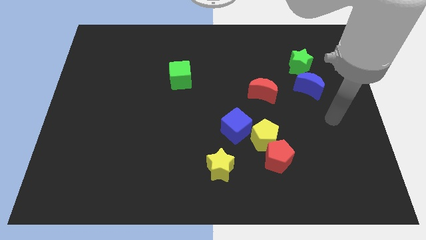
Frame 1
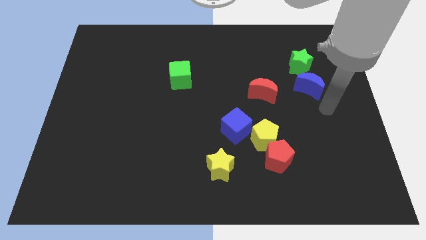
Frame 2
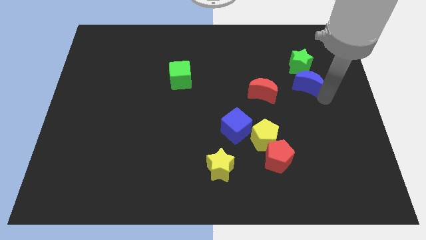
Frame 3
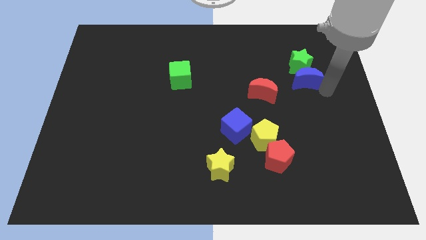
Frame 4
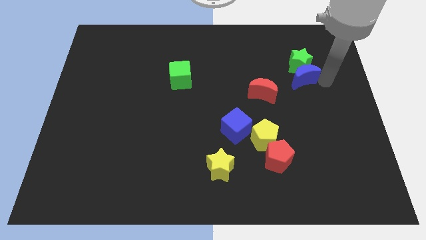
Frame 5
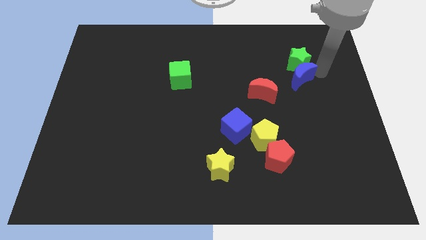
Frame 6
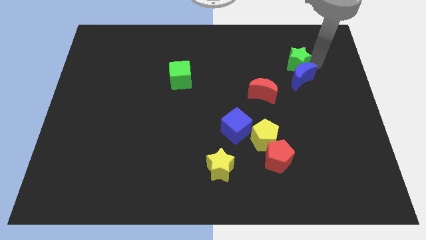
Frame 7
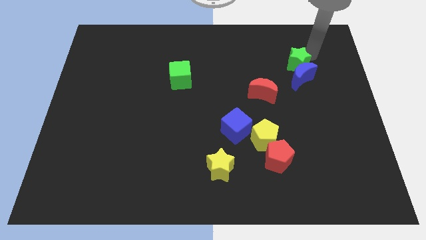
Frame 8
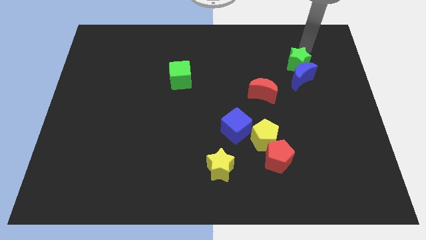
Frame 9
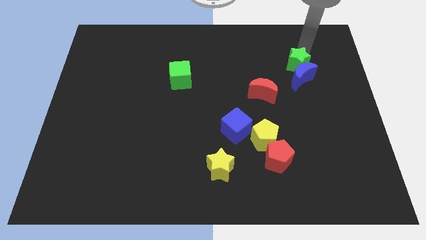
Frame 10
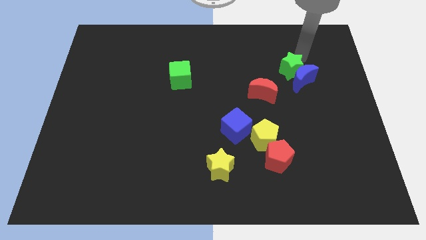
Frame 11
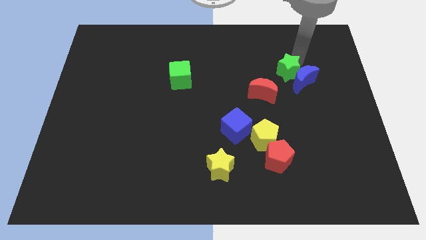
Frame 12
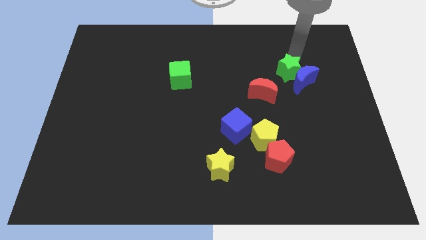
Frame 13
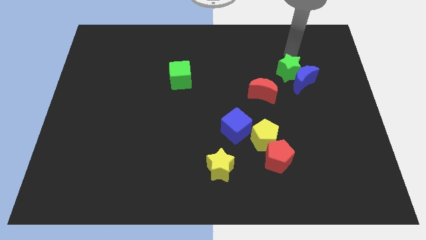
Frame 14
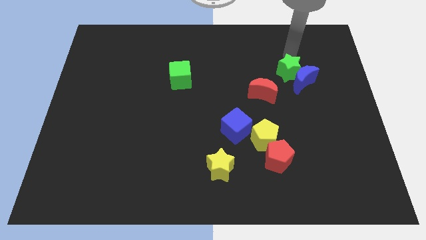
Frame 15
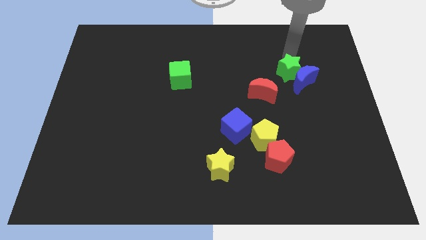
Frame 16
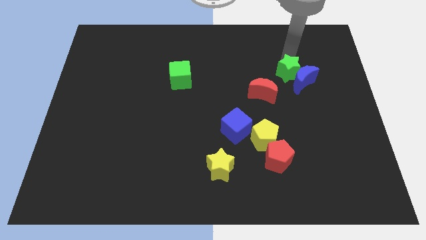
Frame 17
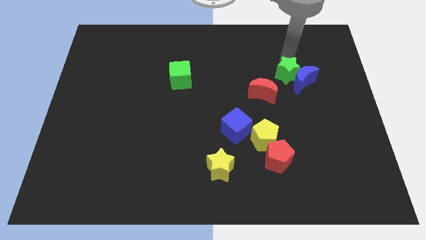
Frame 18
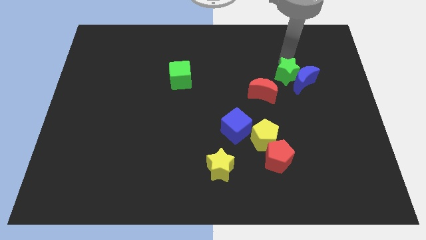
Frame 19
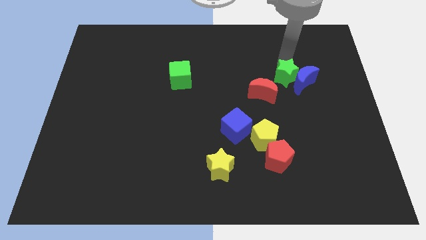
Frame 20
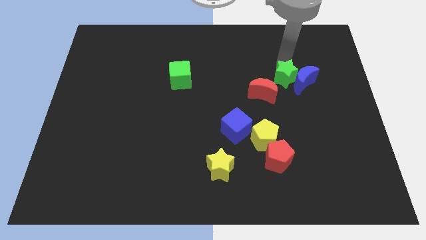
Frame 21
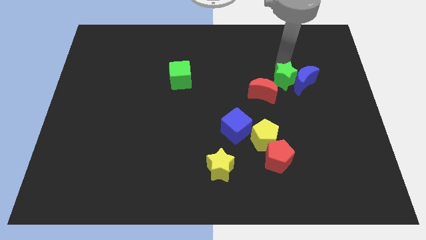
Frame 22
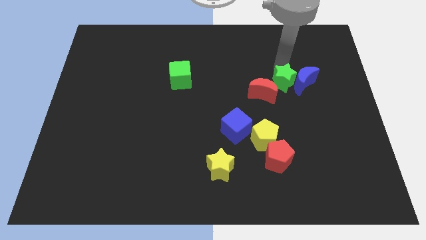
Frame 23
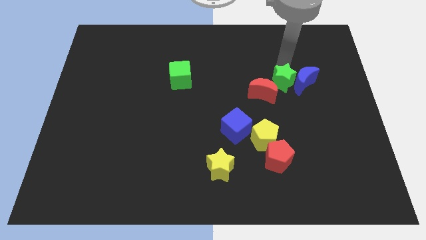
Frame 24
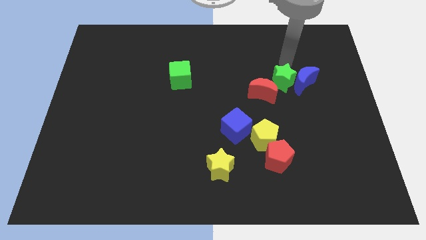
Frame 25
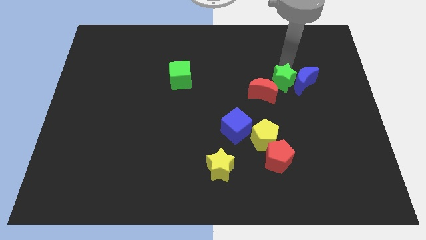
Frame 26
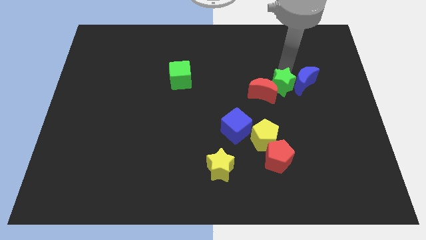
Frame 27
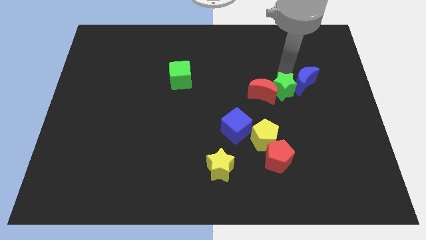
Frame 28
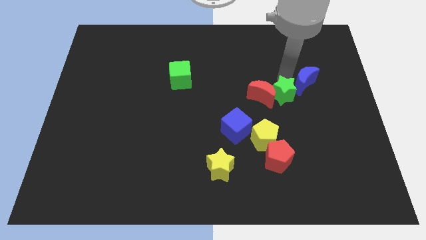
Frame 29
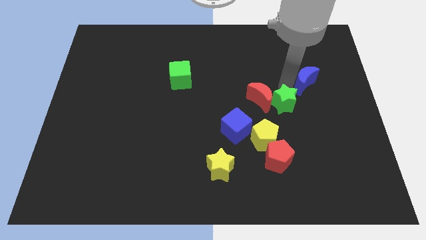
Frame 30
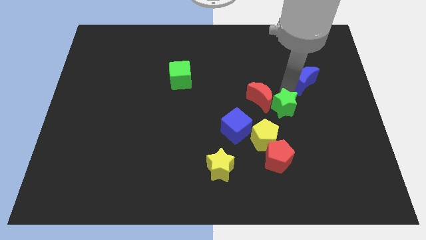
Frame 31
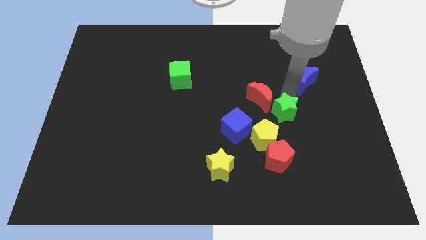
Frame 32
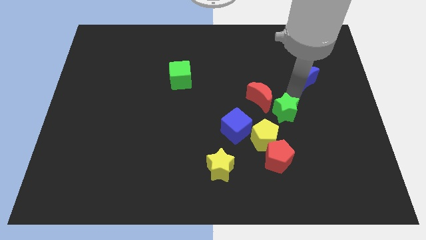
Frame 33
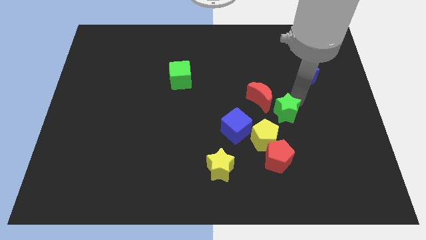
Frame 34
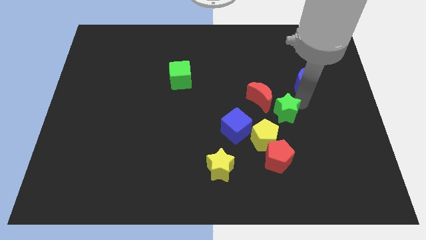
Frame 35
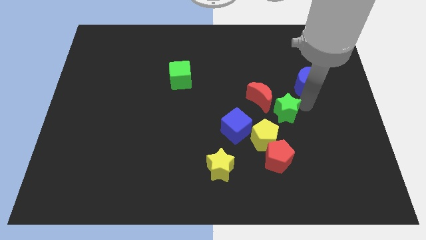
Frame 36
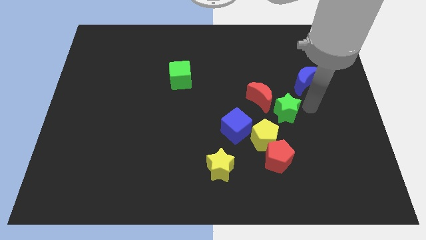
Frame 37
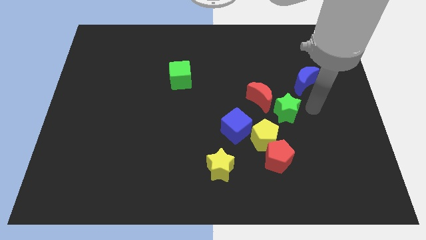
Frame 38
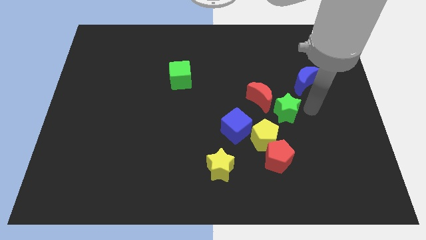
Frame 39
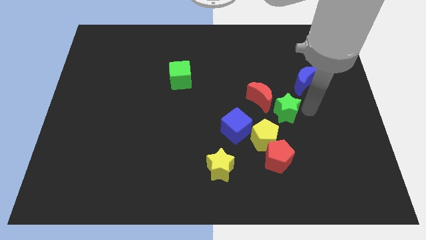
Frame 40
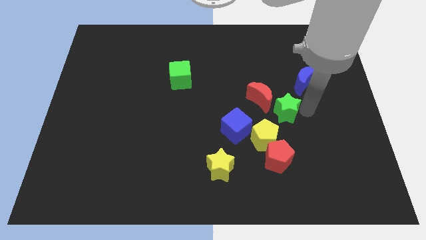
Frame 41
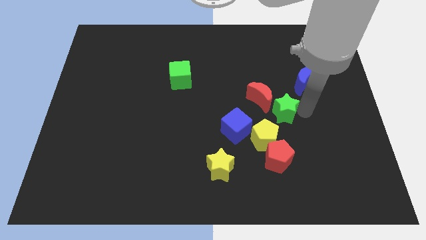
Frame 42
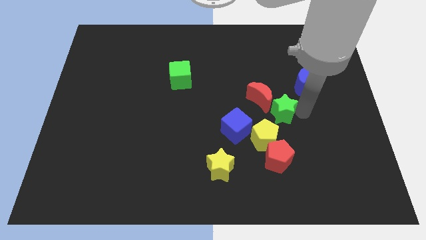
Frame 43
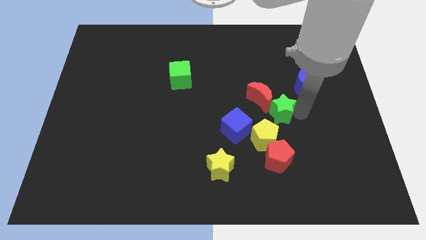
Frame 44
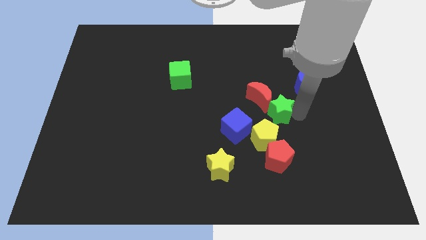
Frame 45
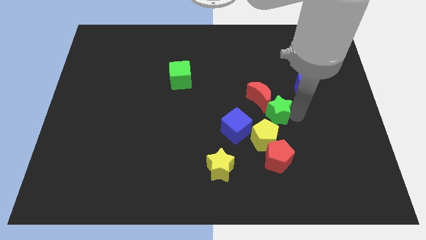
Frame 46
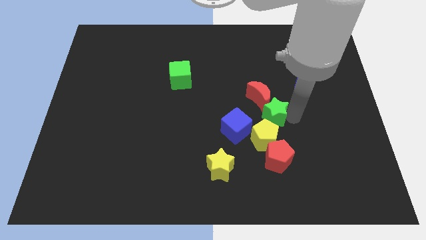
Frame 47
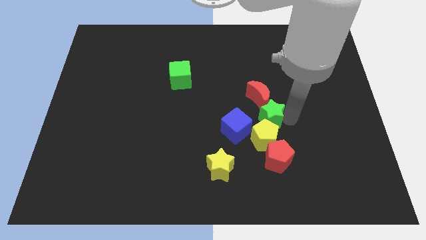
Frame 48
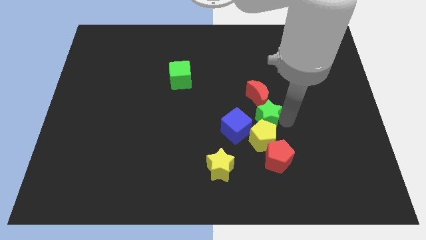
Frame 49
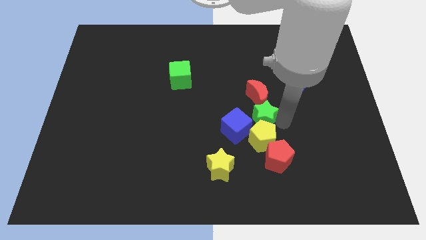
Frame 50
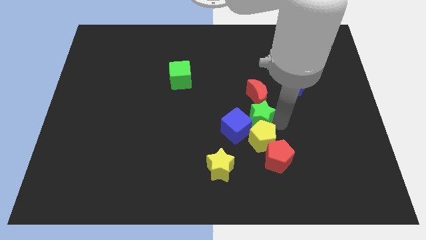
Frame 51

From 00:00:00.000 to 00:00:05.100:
put the green star close to the blue cube

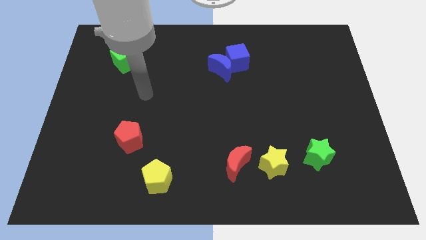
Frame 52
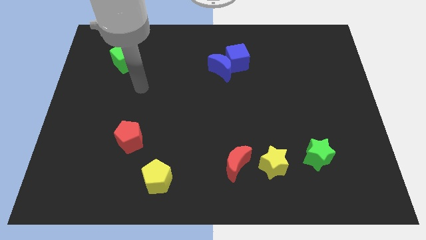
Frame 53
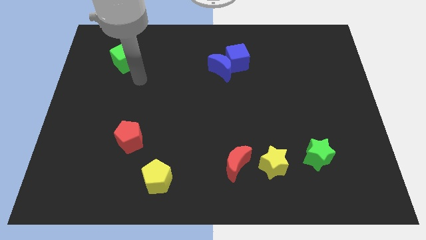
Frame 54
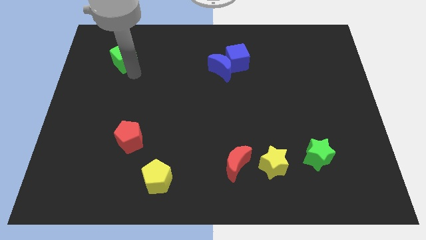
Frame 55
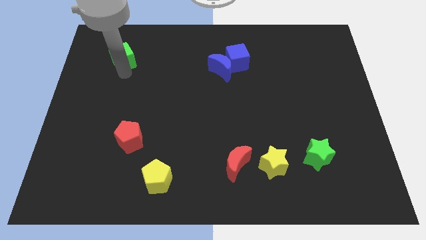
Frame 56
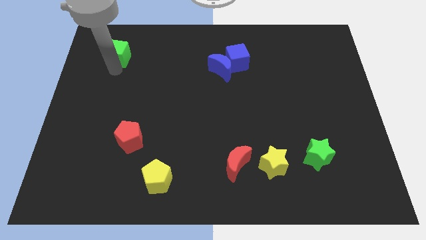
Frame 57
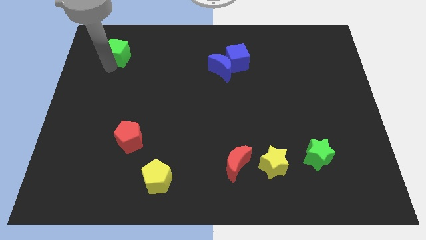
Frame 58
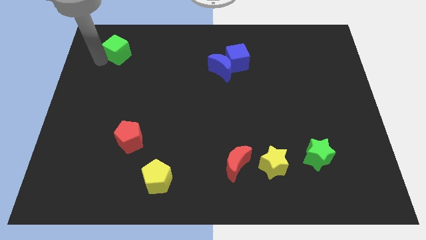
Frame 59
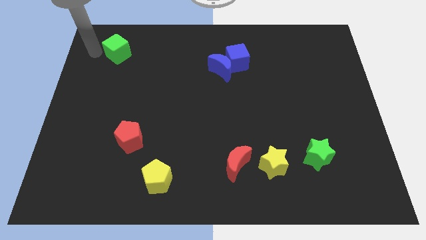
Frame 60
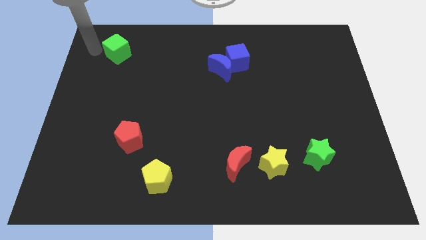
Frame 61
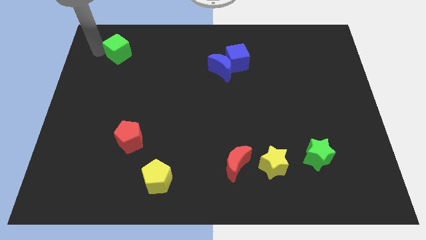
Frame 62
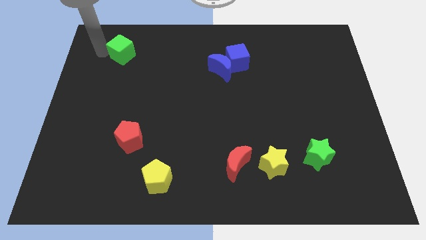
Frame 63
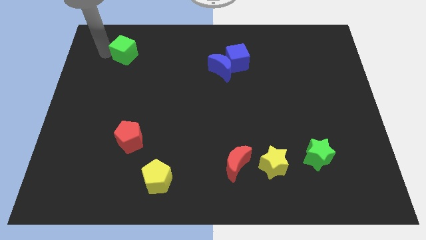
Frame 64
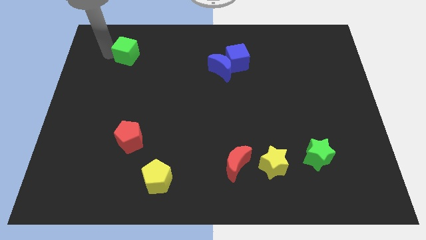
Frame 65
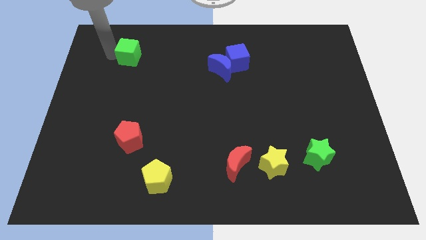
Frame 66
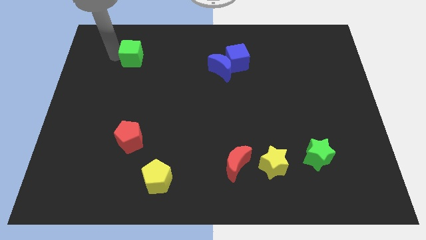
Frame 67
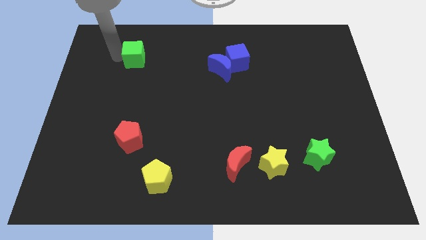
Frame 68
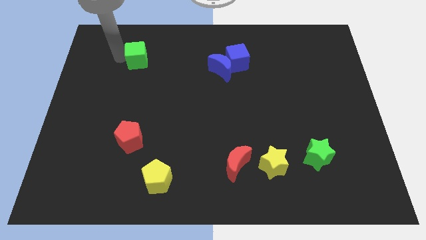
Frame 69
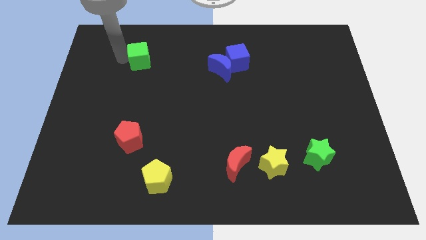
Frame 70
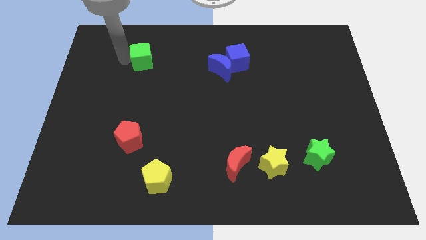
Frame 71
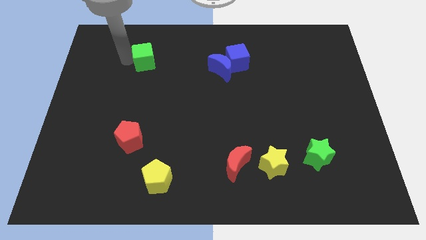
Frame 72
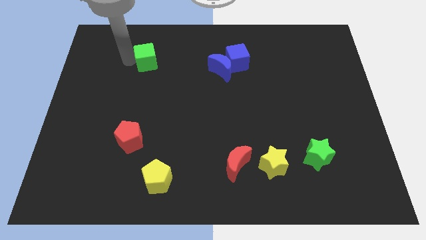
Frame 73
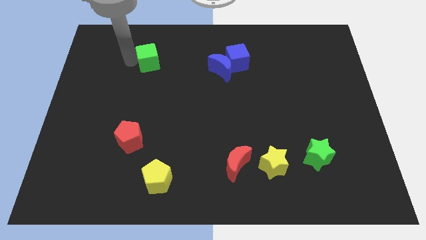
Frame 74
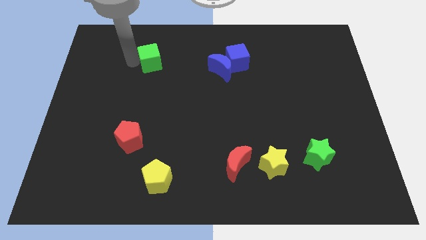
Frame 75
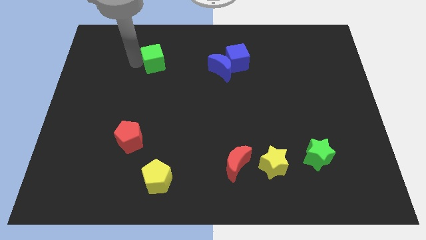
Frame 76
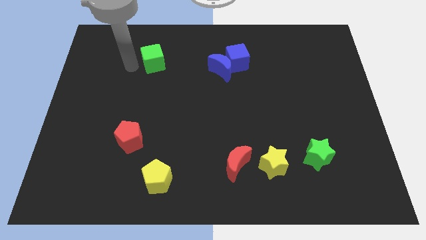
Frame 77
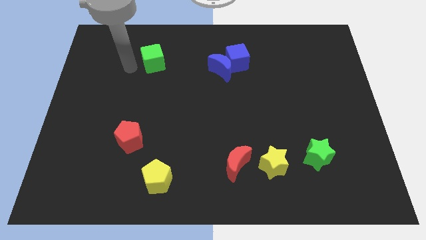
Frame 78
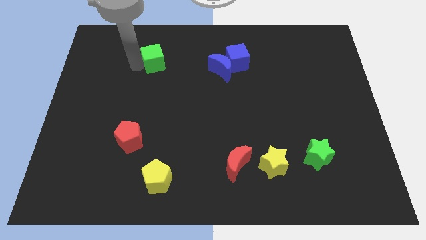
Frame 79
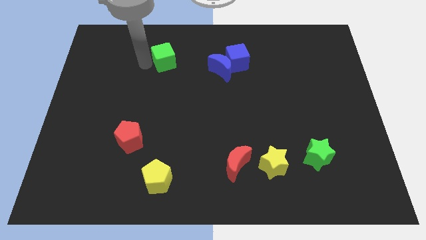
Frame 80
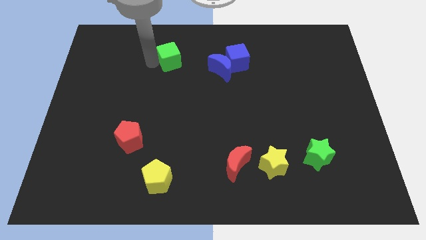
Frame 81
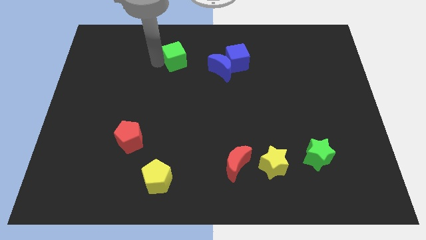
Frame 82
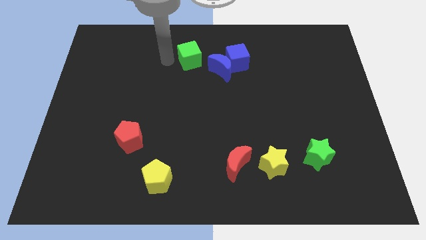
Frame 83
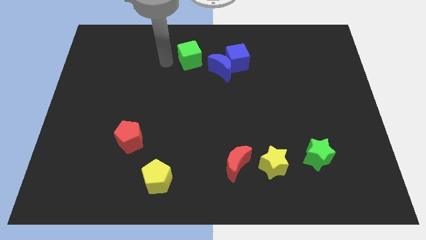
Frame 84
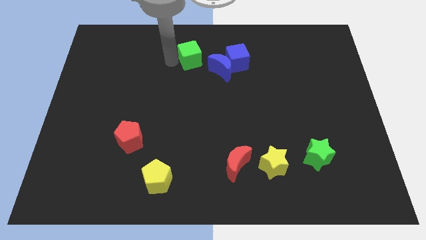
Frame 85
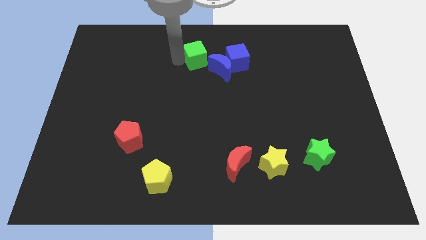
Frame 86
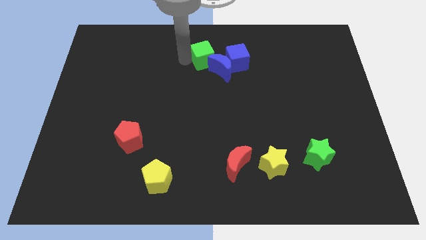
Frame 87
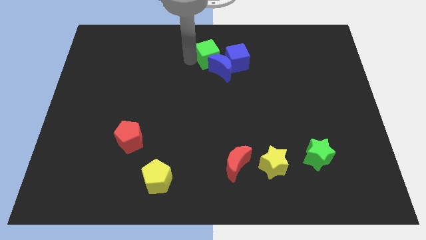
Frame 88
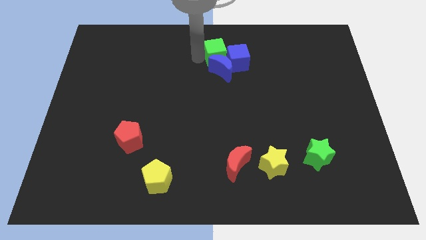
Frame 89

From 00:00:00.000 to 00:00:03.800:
slide the green cube to the blue cube
